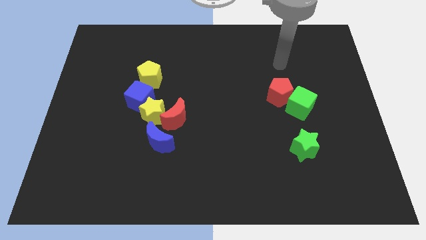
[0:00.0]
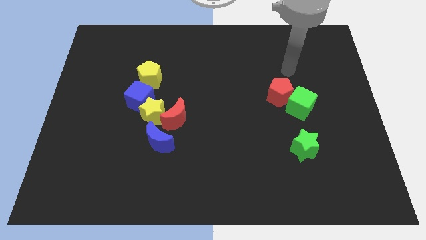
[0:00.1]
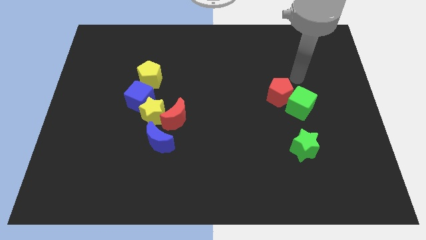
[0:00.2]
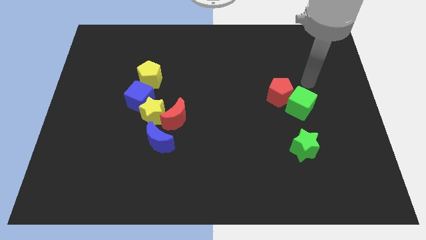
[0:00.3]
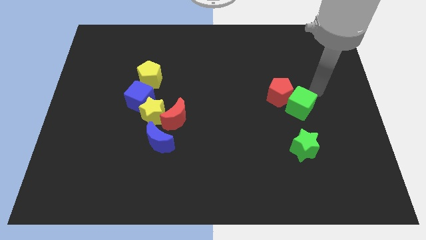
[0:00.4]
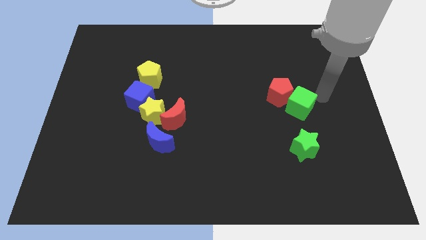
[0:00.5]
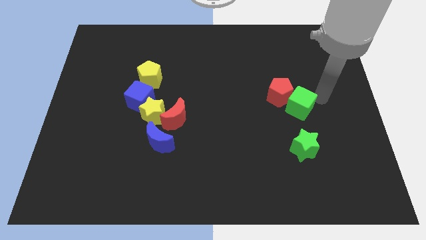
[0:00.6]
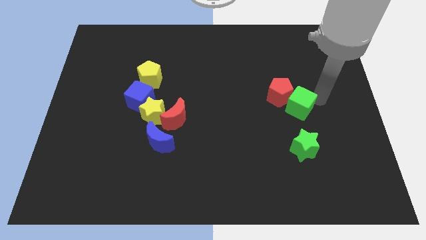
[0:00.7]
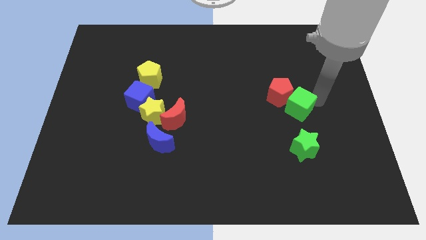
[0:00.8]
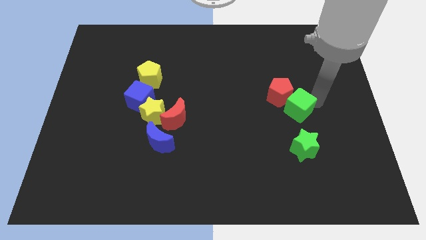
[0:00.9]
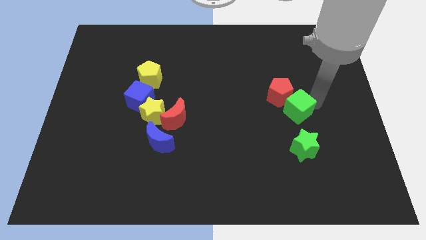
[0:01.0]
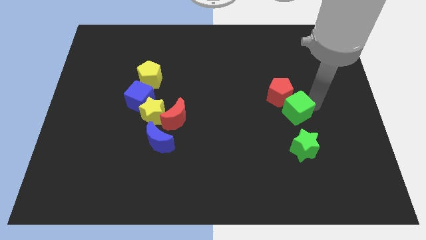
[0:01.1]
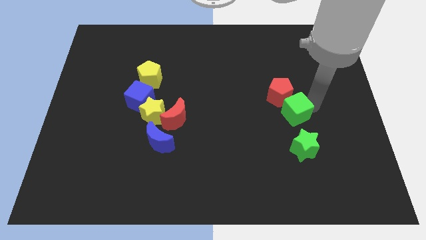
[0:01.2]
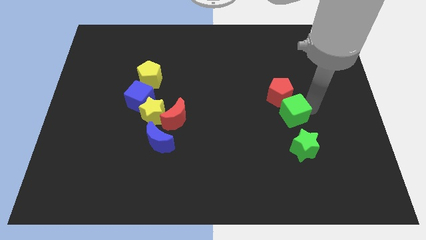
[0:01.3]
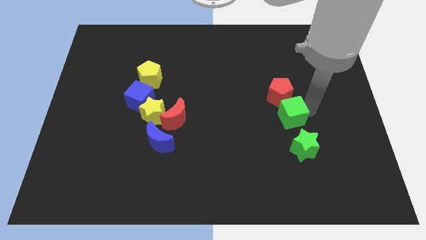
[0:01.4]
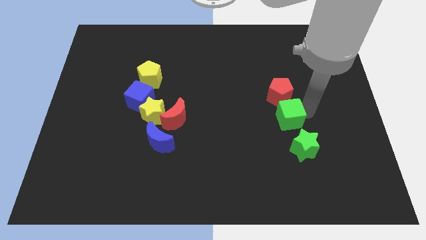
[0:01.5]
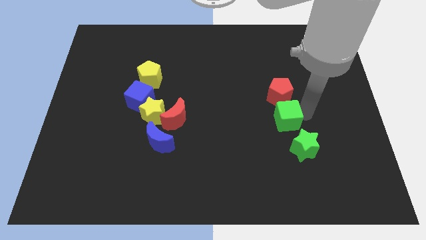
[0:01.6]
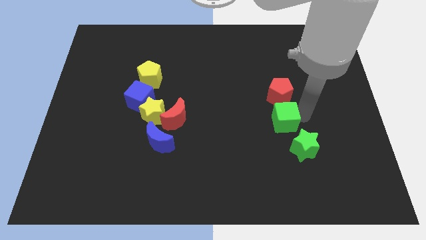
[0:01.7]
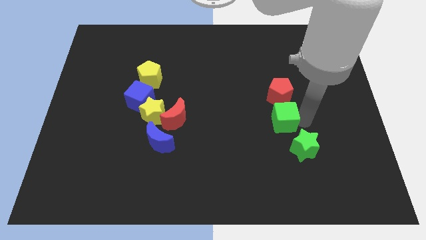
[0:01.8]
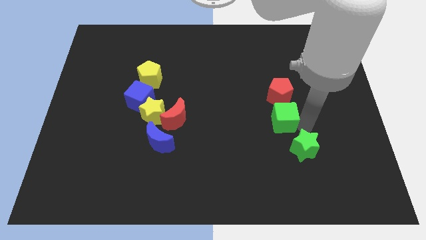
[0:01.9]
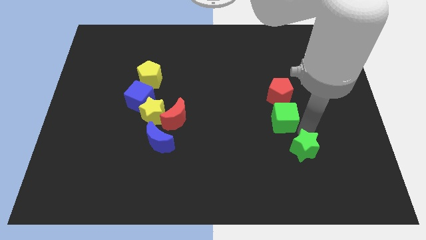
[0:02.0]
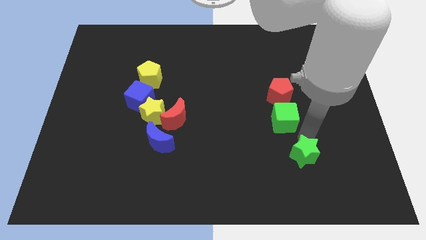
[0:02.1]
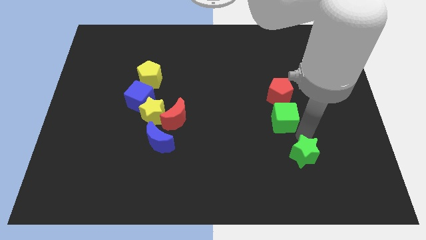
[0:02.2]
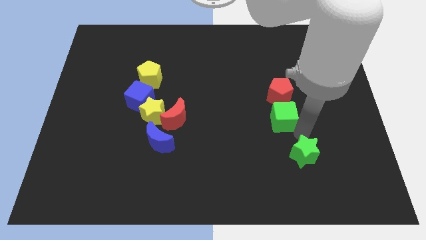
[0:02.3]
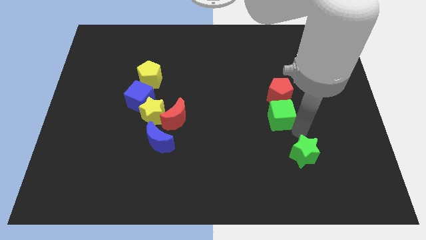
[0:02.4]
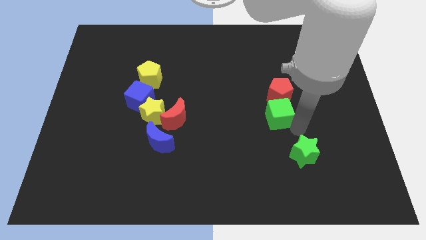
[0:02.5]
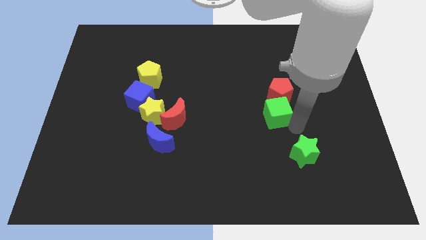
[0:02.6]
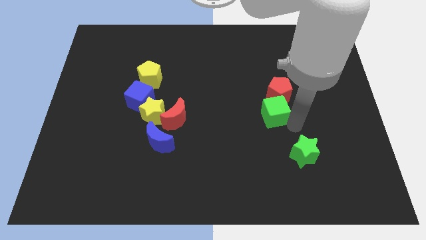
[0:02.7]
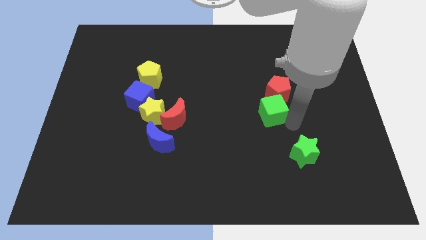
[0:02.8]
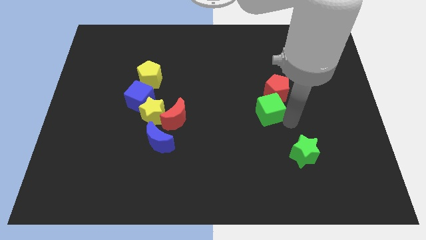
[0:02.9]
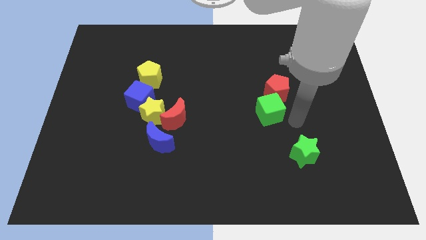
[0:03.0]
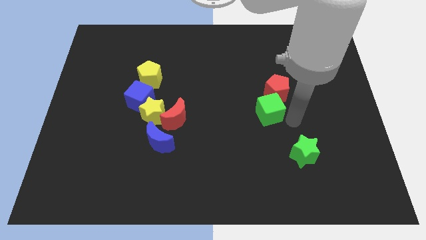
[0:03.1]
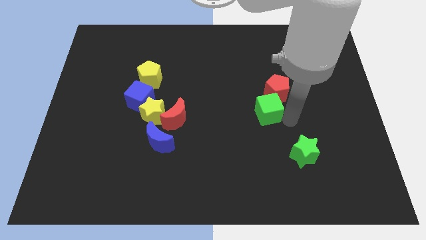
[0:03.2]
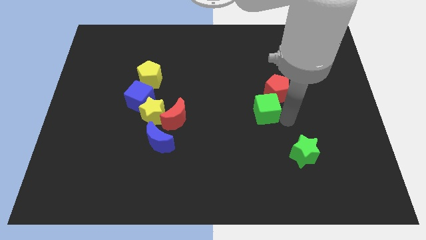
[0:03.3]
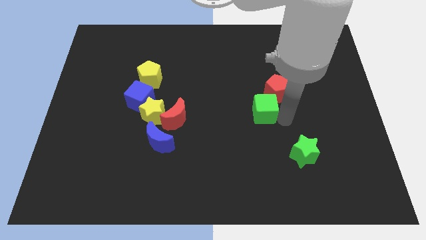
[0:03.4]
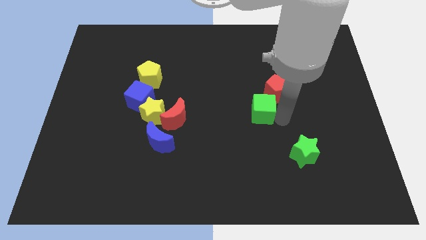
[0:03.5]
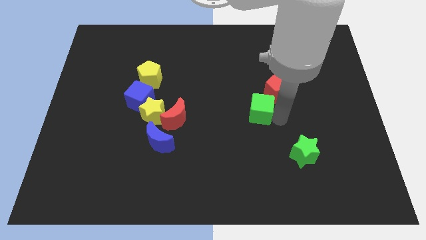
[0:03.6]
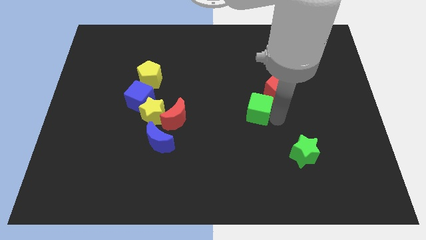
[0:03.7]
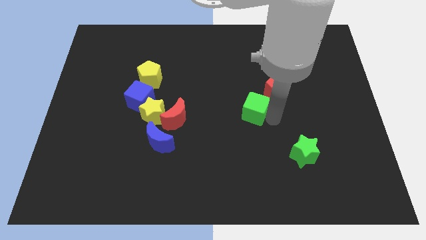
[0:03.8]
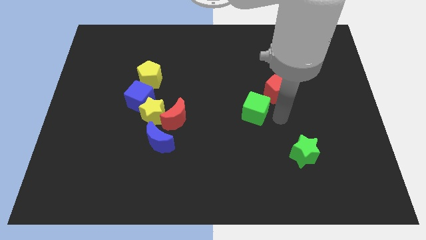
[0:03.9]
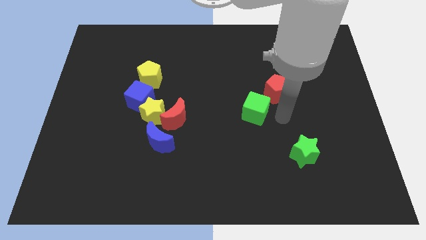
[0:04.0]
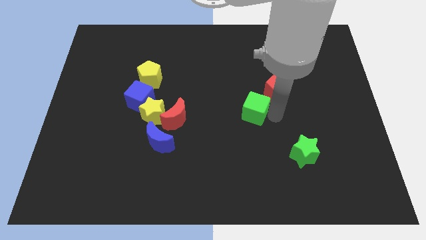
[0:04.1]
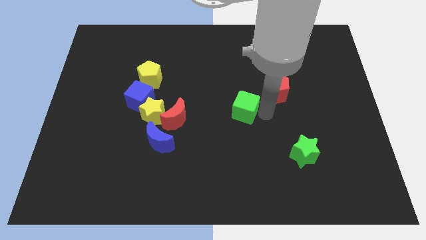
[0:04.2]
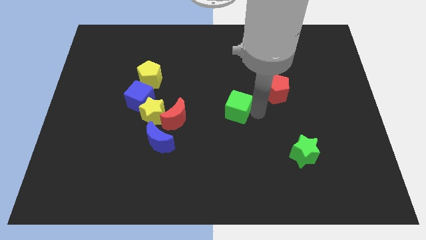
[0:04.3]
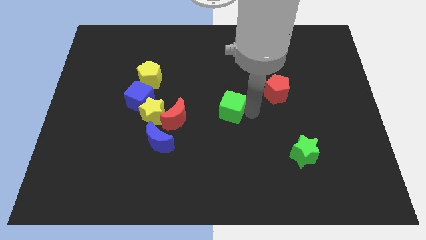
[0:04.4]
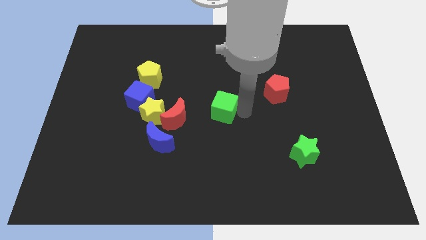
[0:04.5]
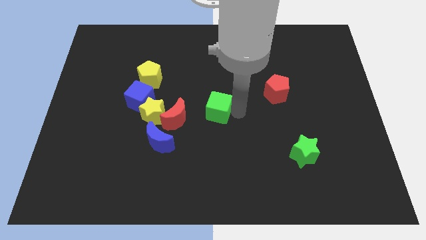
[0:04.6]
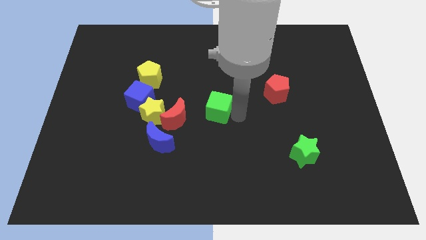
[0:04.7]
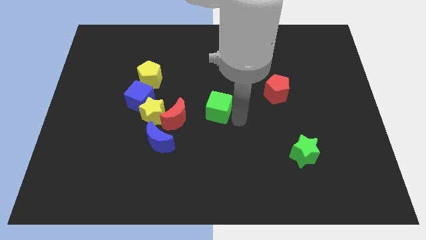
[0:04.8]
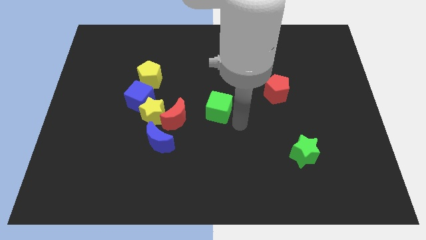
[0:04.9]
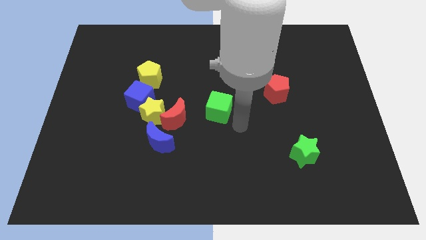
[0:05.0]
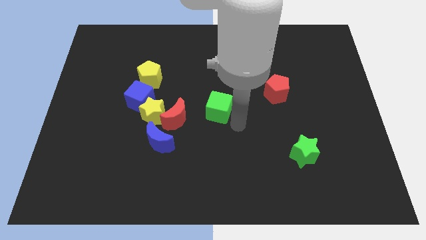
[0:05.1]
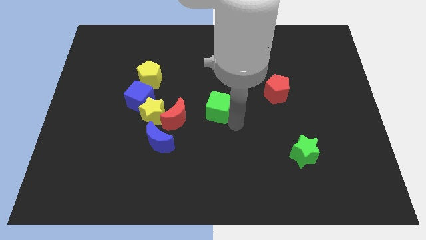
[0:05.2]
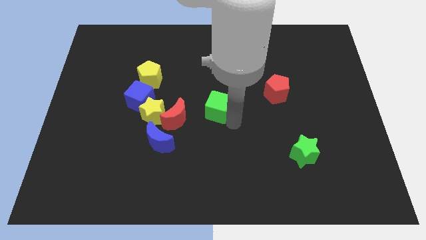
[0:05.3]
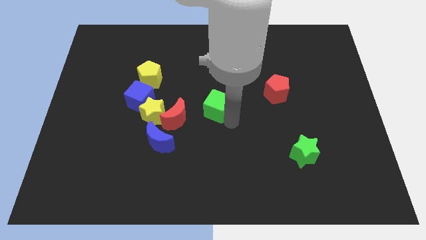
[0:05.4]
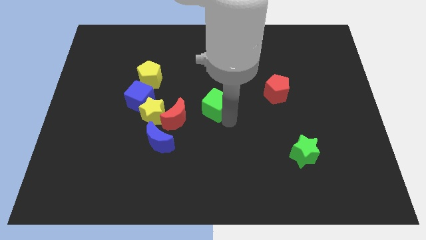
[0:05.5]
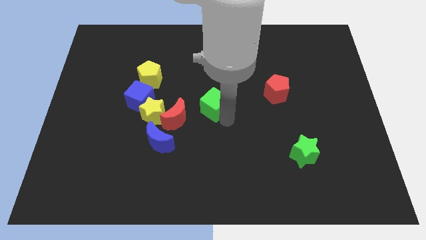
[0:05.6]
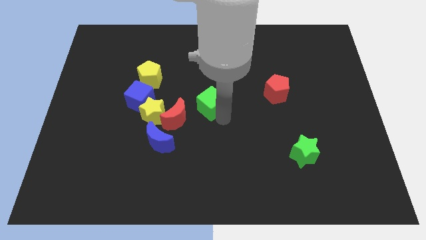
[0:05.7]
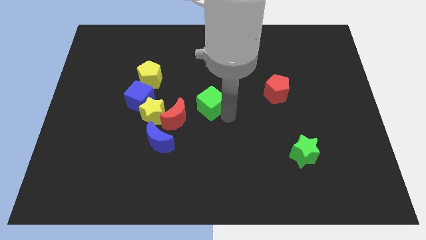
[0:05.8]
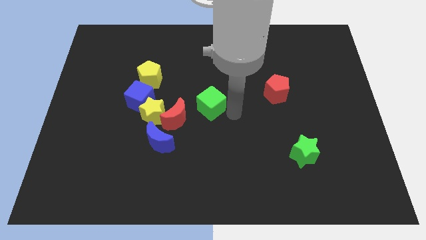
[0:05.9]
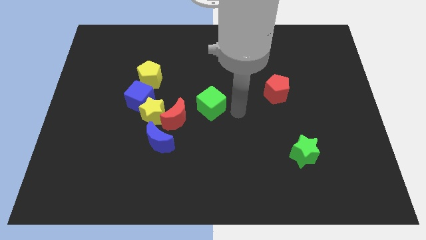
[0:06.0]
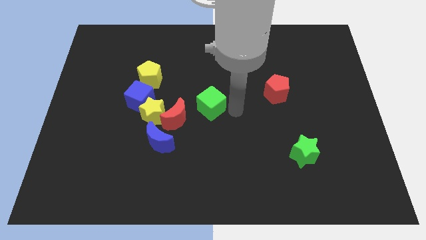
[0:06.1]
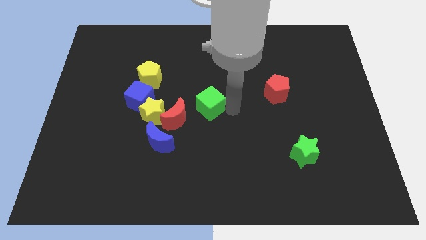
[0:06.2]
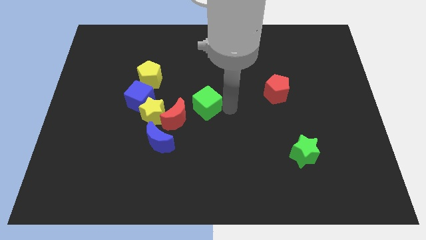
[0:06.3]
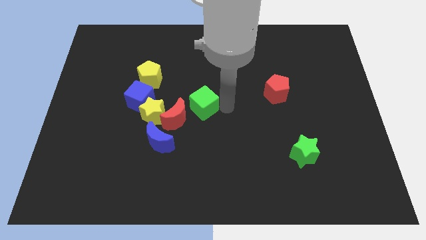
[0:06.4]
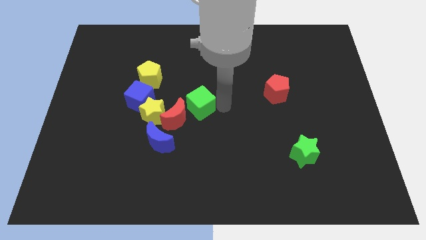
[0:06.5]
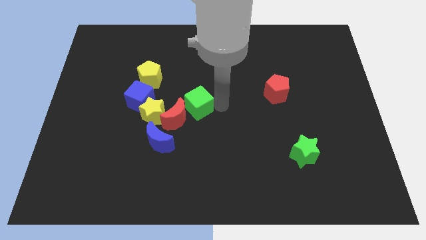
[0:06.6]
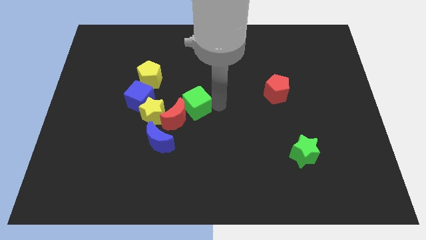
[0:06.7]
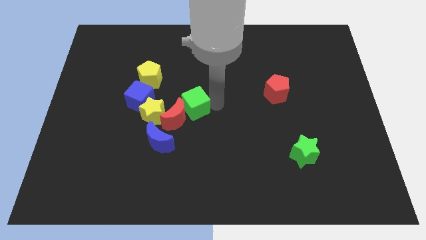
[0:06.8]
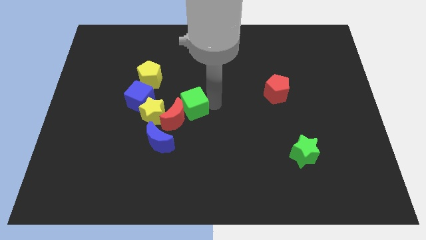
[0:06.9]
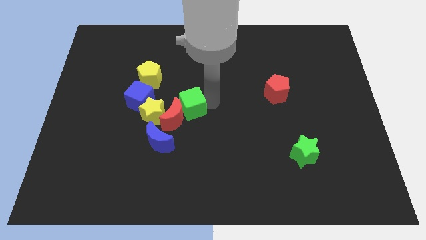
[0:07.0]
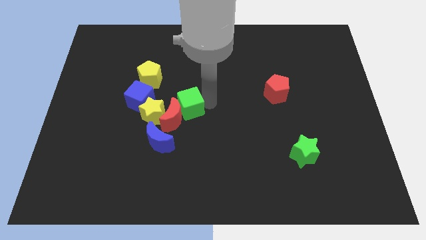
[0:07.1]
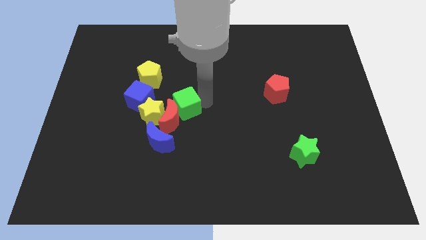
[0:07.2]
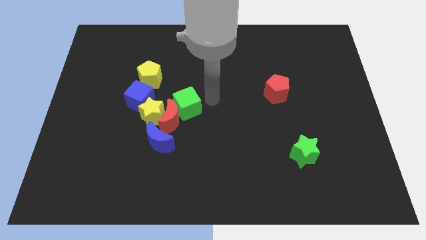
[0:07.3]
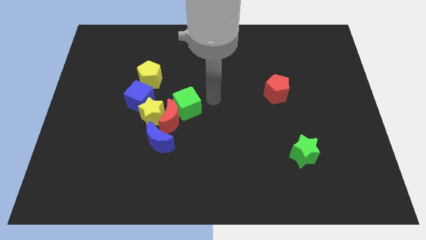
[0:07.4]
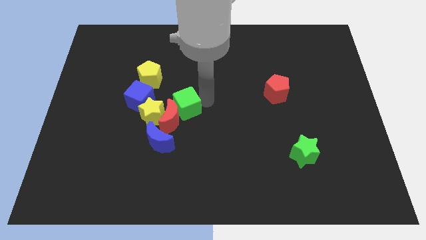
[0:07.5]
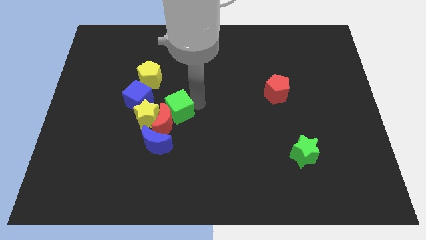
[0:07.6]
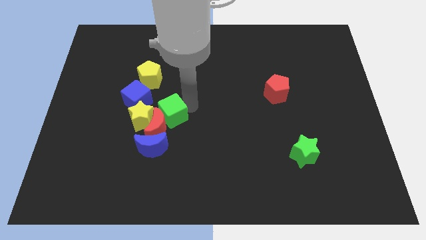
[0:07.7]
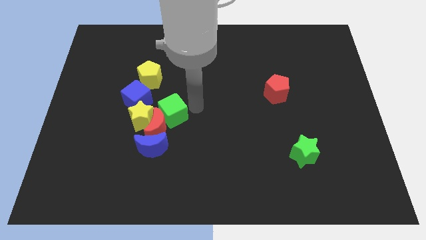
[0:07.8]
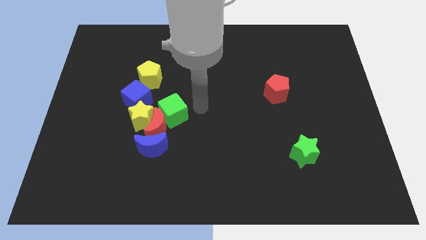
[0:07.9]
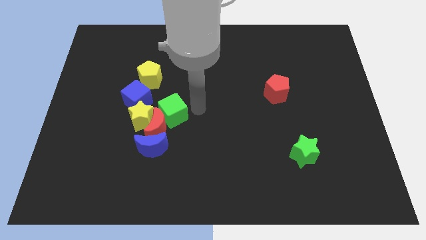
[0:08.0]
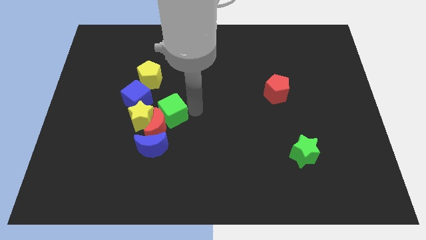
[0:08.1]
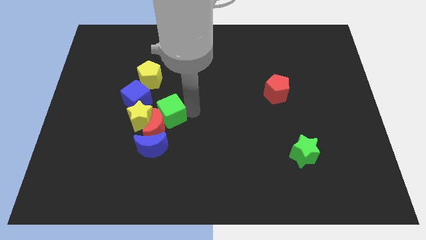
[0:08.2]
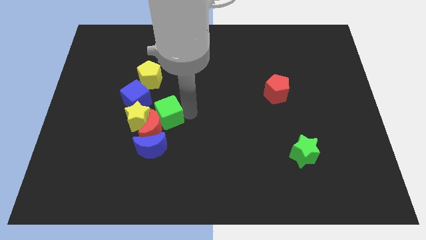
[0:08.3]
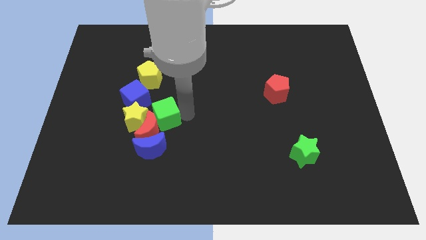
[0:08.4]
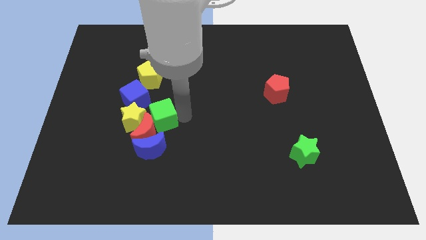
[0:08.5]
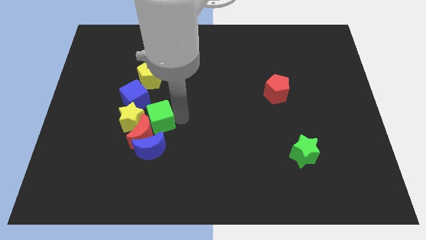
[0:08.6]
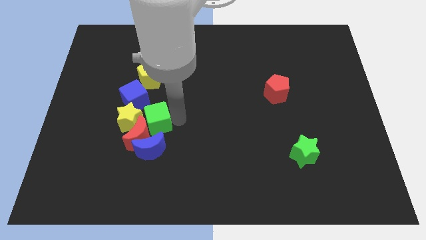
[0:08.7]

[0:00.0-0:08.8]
put the green cube towards the yellow star
